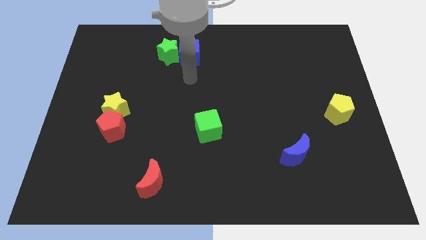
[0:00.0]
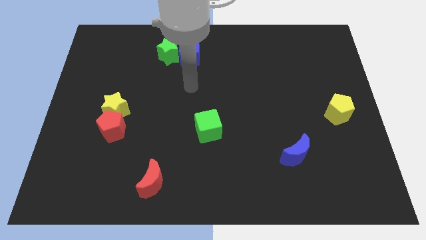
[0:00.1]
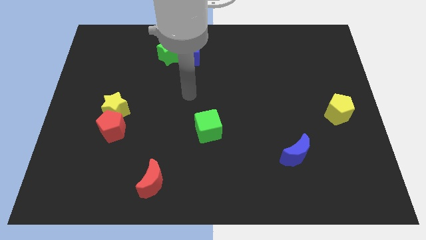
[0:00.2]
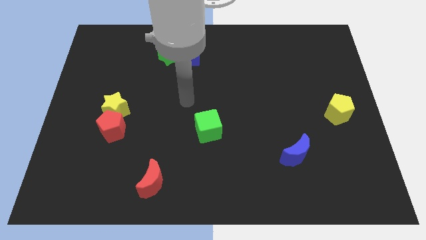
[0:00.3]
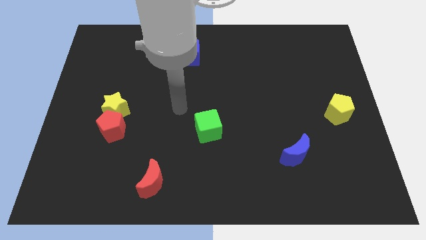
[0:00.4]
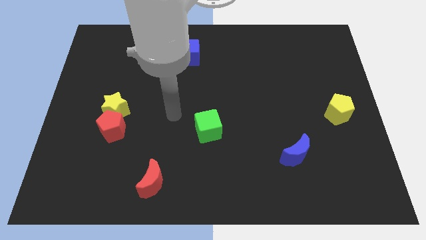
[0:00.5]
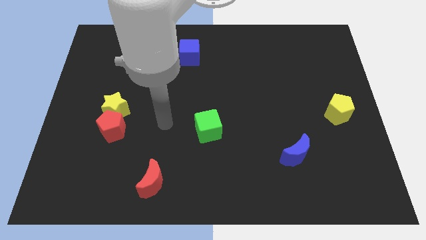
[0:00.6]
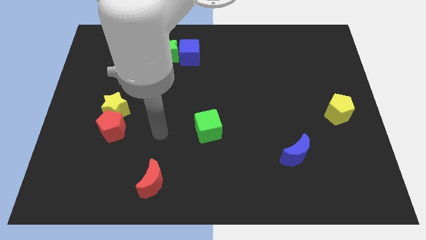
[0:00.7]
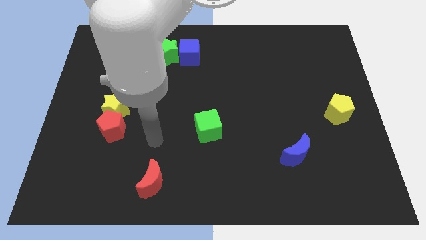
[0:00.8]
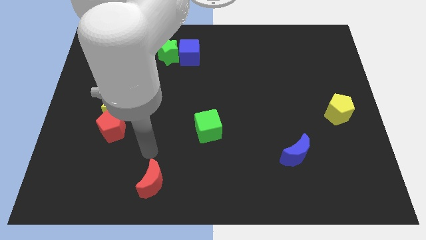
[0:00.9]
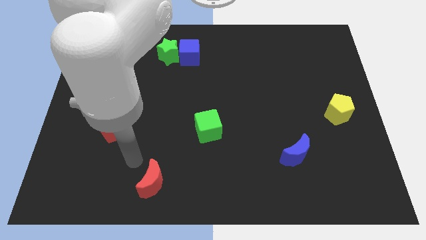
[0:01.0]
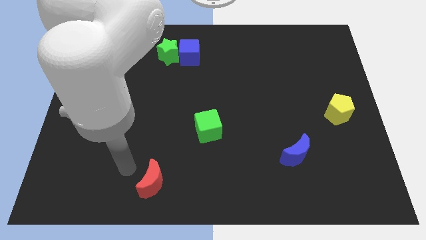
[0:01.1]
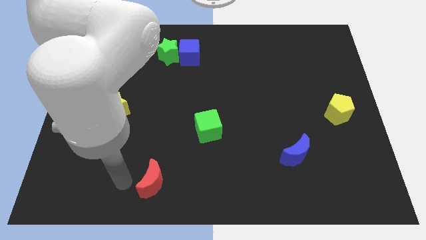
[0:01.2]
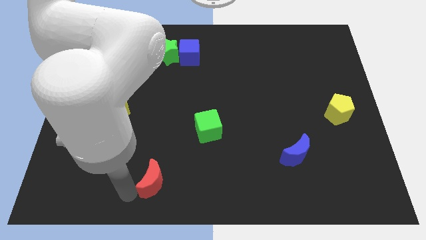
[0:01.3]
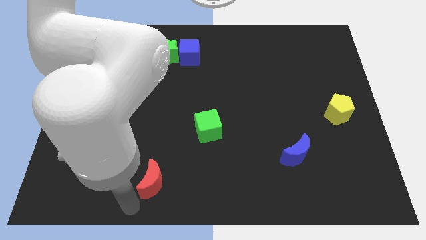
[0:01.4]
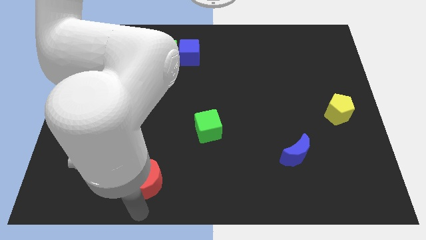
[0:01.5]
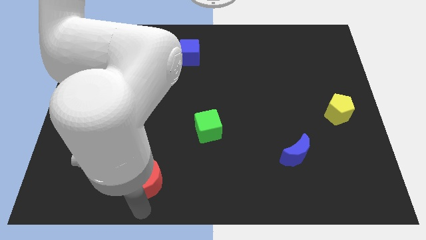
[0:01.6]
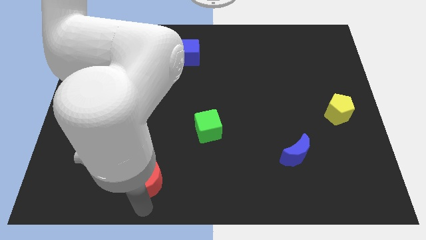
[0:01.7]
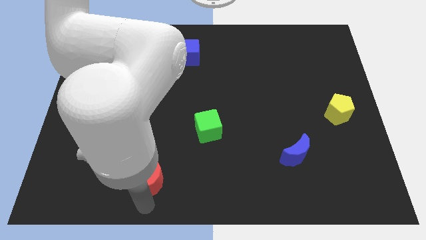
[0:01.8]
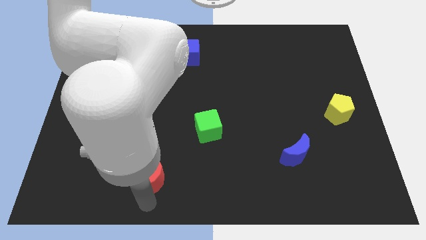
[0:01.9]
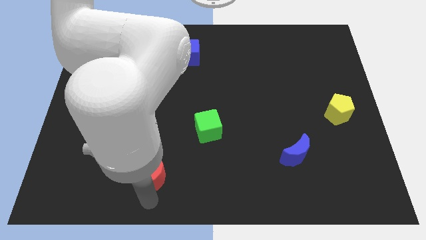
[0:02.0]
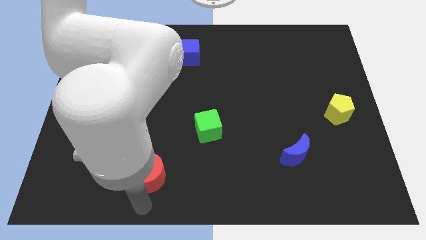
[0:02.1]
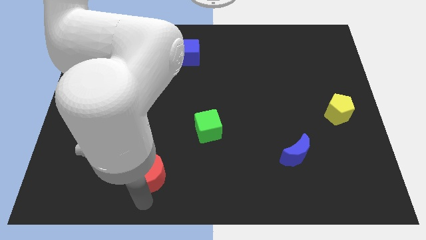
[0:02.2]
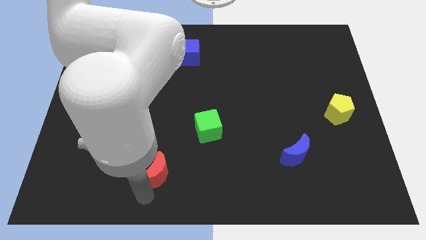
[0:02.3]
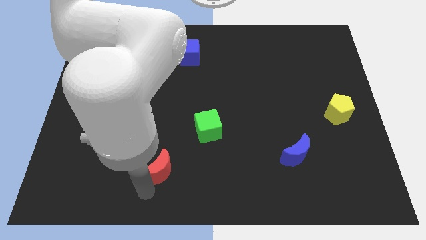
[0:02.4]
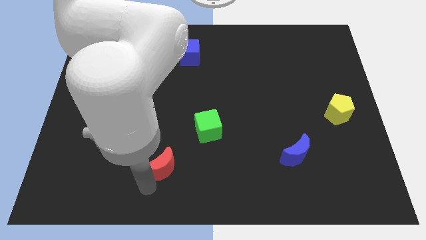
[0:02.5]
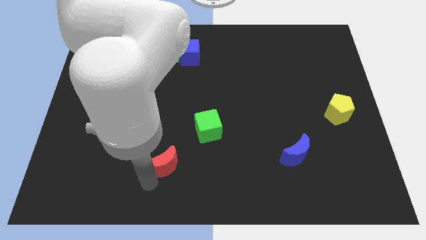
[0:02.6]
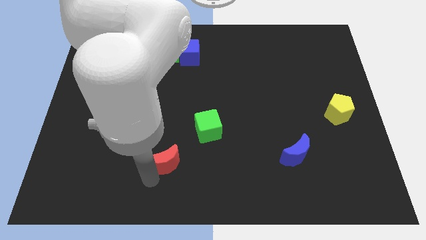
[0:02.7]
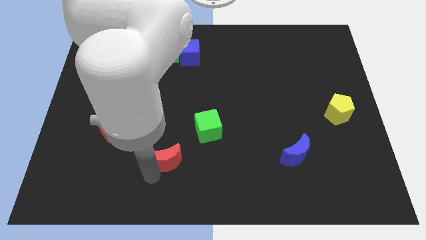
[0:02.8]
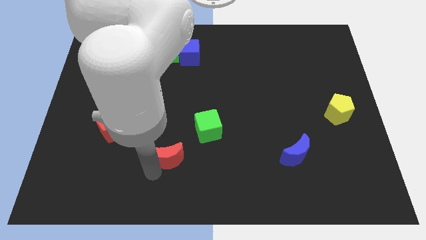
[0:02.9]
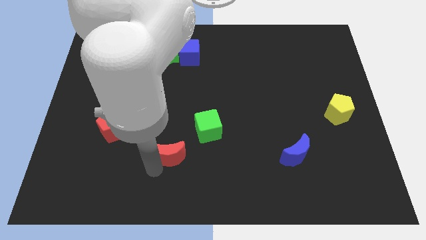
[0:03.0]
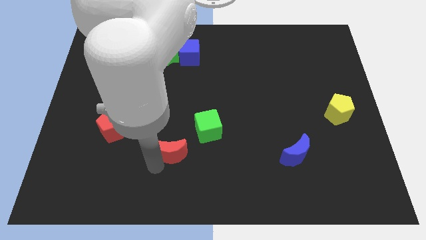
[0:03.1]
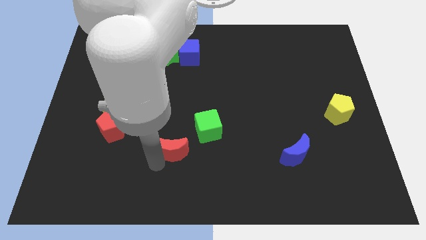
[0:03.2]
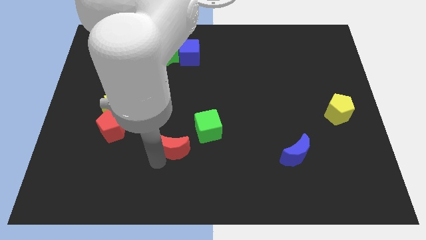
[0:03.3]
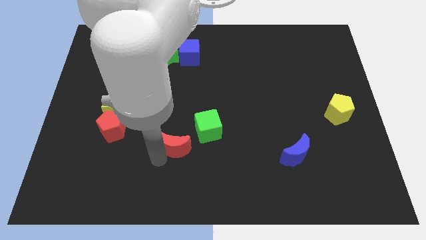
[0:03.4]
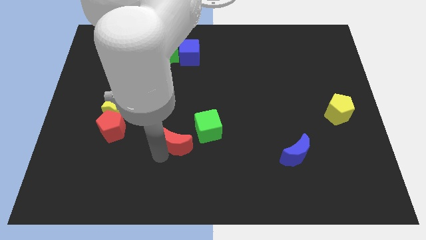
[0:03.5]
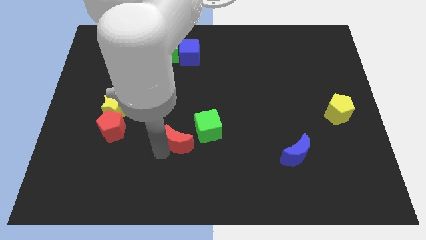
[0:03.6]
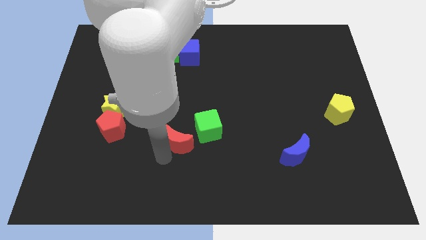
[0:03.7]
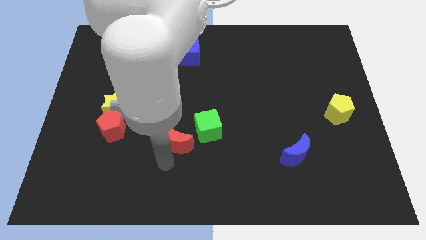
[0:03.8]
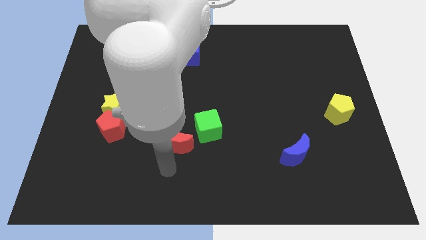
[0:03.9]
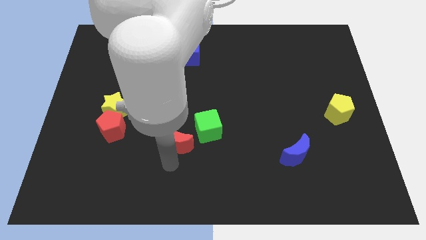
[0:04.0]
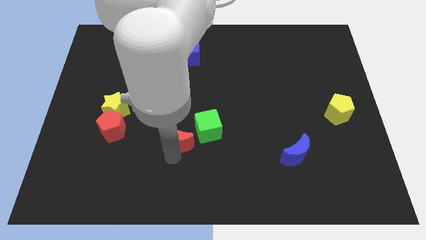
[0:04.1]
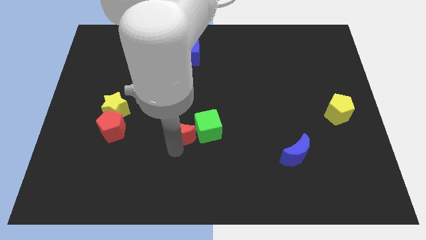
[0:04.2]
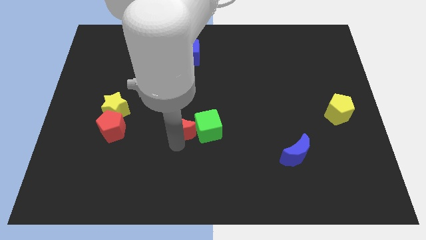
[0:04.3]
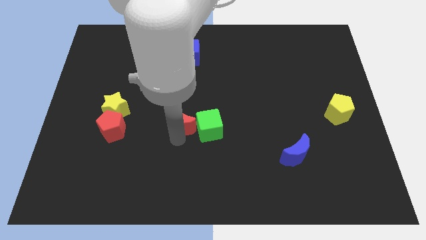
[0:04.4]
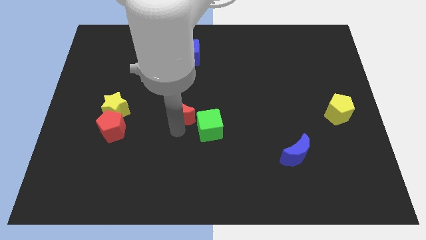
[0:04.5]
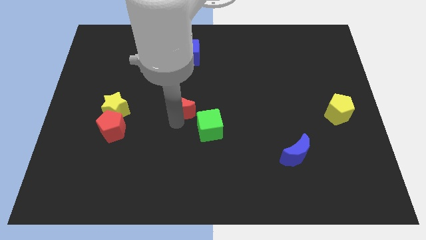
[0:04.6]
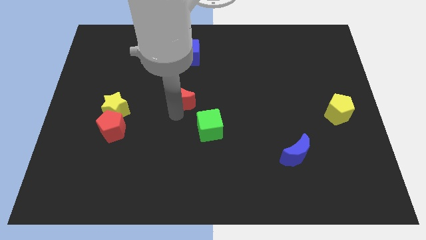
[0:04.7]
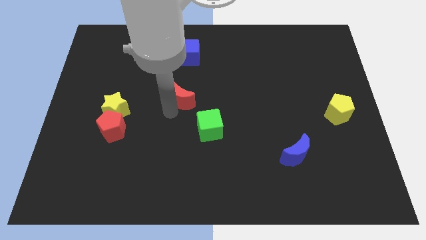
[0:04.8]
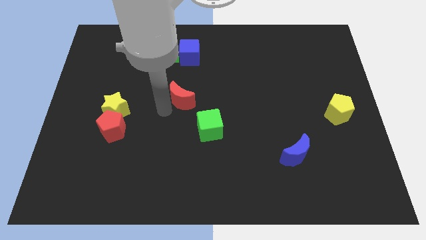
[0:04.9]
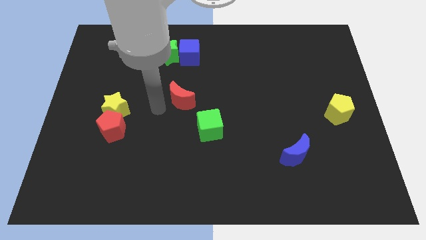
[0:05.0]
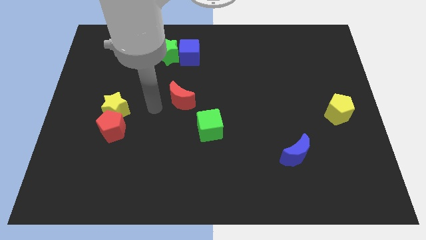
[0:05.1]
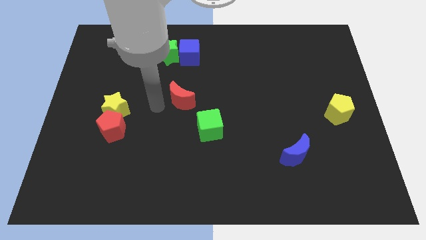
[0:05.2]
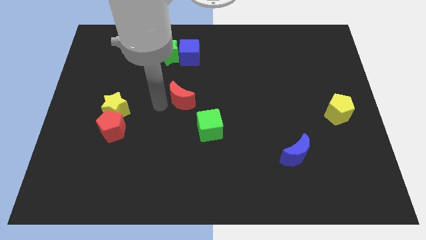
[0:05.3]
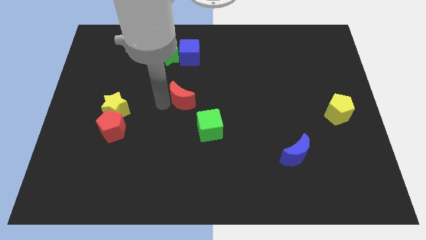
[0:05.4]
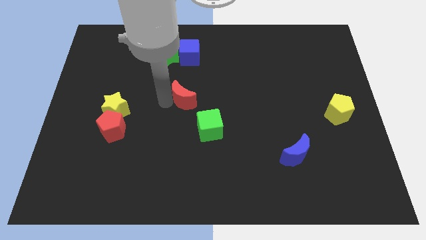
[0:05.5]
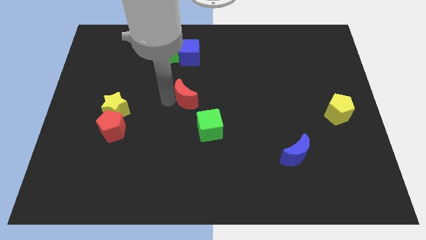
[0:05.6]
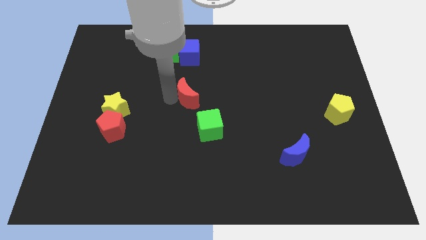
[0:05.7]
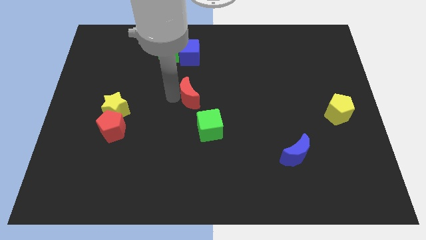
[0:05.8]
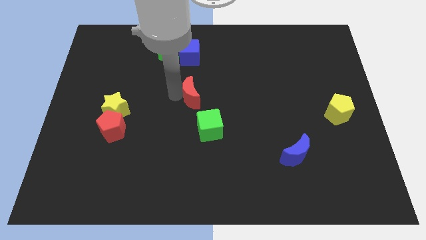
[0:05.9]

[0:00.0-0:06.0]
put the red moon to the top of the green cube

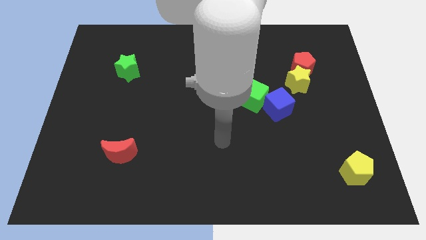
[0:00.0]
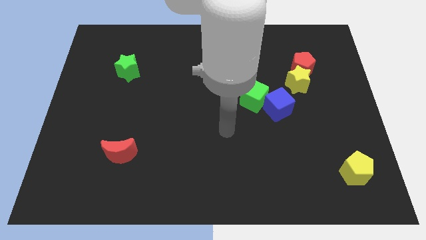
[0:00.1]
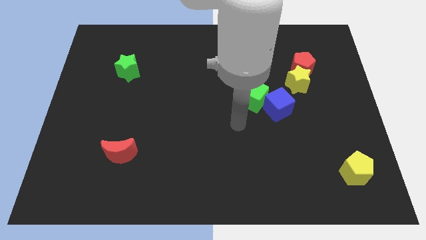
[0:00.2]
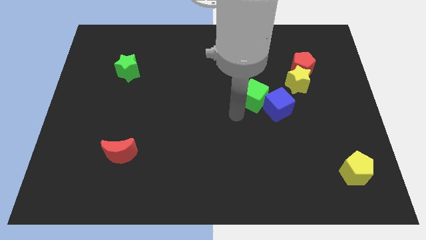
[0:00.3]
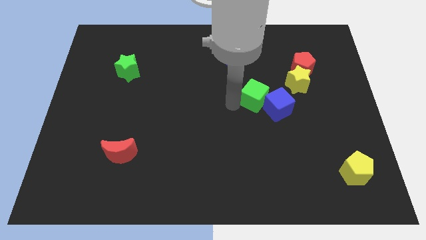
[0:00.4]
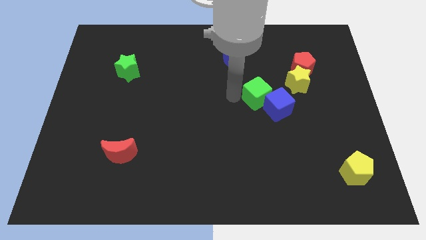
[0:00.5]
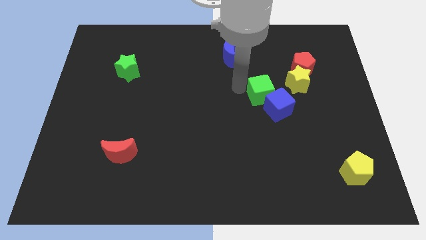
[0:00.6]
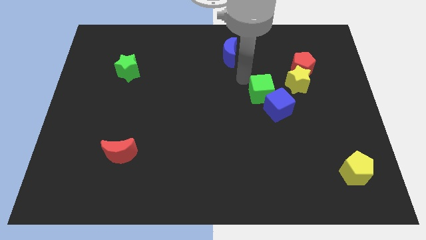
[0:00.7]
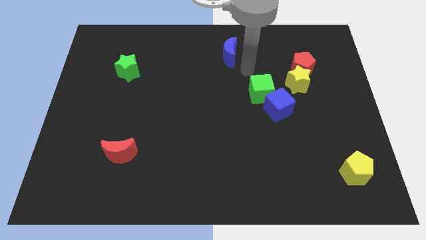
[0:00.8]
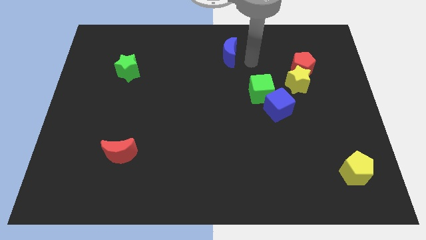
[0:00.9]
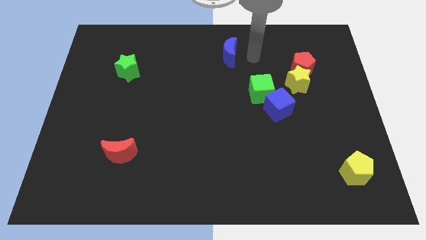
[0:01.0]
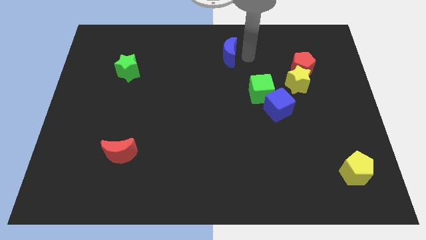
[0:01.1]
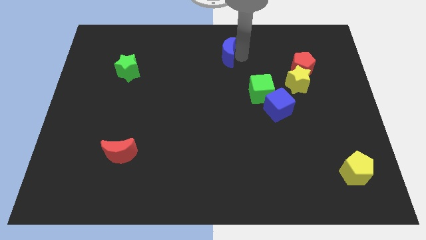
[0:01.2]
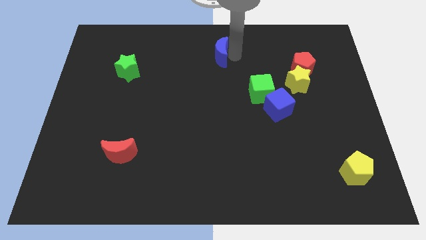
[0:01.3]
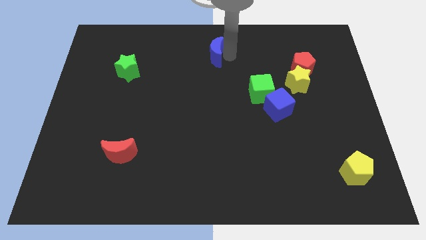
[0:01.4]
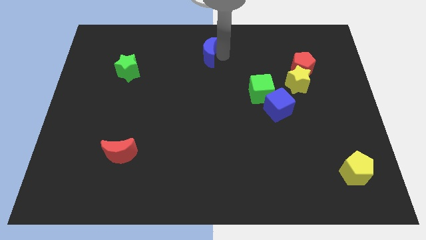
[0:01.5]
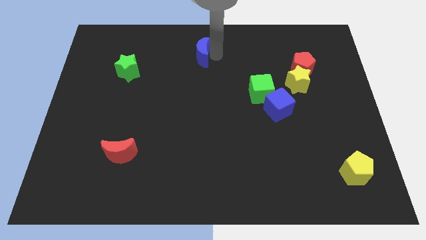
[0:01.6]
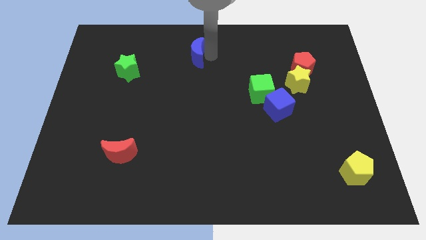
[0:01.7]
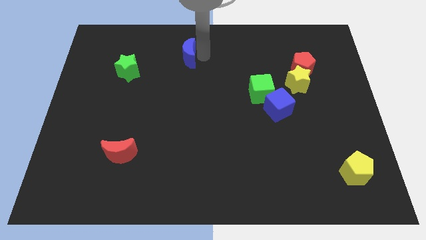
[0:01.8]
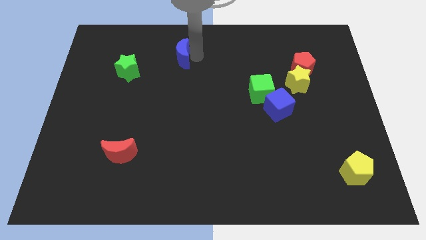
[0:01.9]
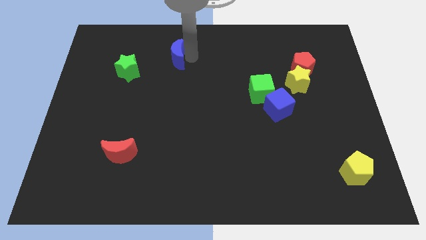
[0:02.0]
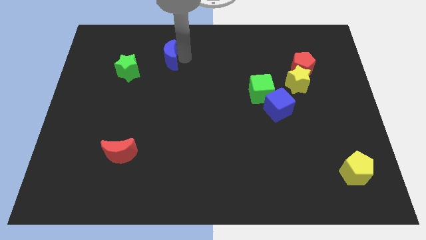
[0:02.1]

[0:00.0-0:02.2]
slide the blue moon to the top right side of the green star
